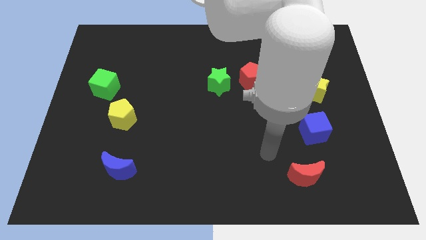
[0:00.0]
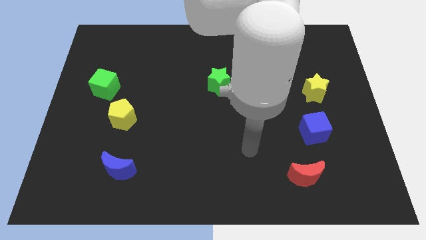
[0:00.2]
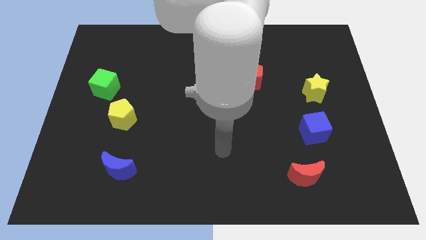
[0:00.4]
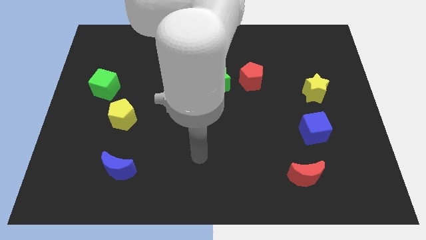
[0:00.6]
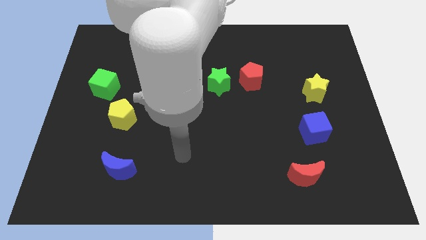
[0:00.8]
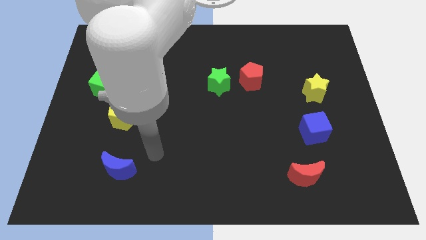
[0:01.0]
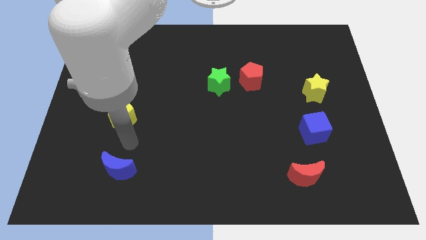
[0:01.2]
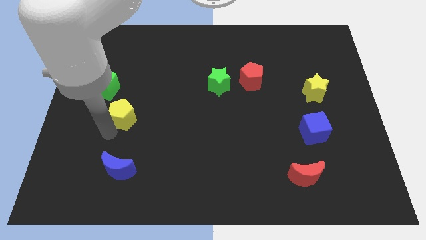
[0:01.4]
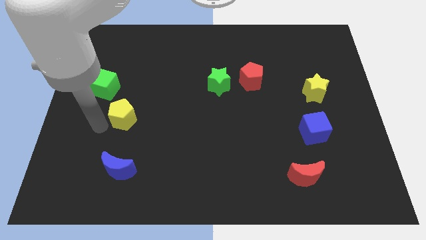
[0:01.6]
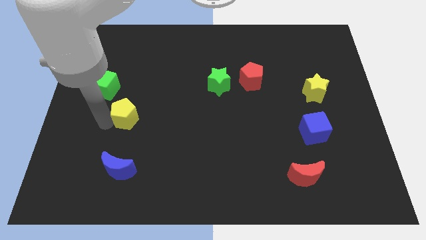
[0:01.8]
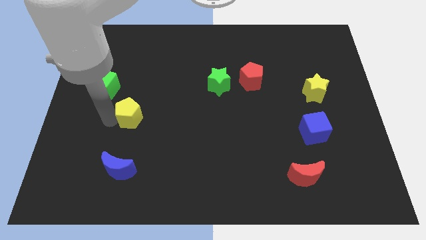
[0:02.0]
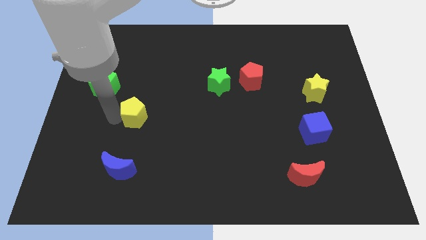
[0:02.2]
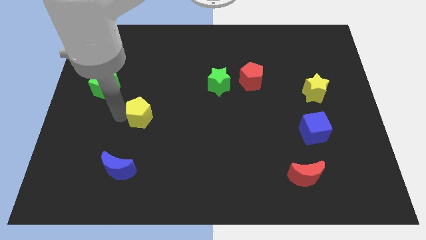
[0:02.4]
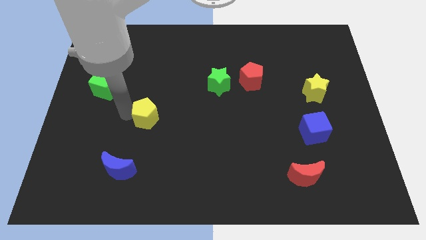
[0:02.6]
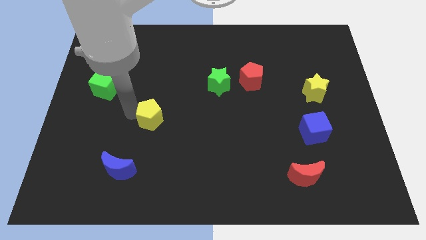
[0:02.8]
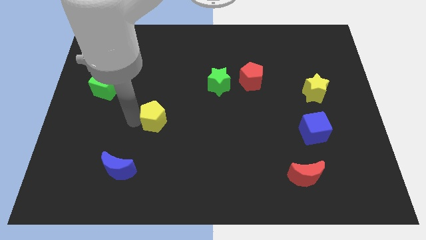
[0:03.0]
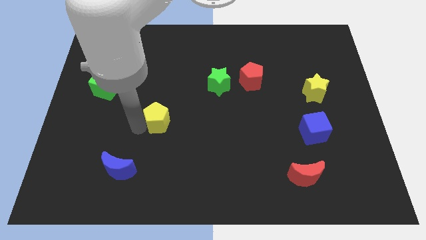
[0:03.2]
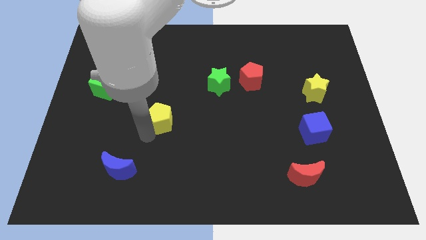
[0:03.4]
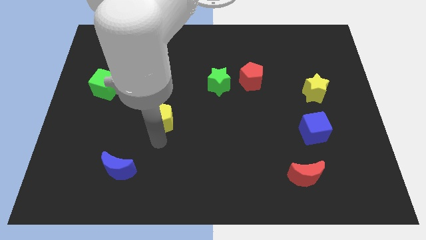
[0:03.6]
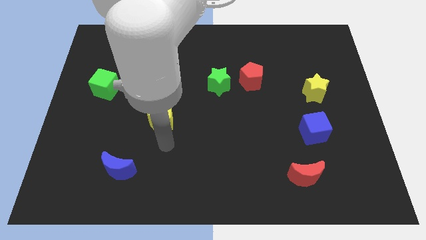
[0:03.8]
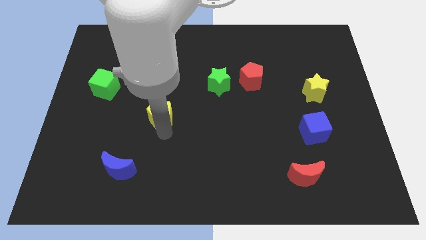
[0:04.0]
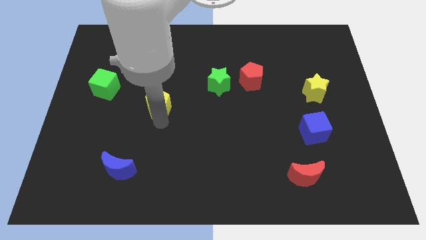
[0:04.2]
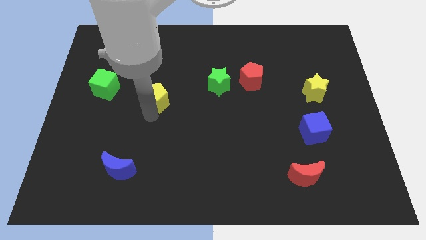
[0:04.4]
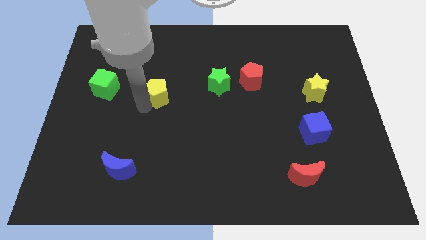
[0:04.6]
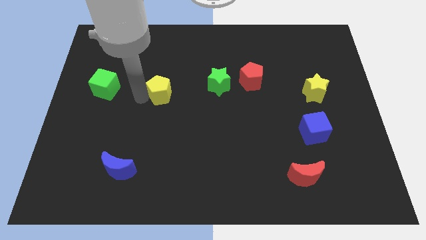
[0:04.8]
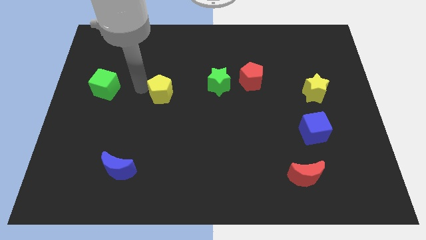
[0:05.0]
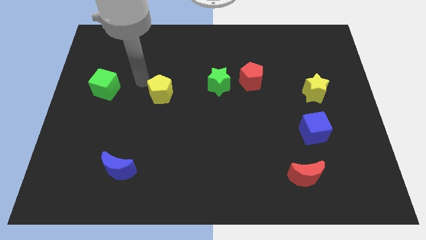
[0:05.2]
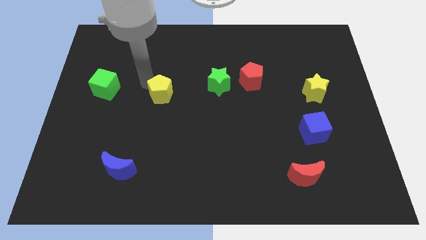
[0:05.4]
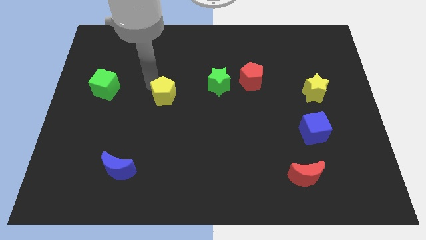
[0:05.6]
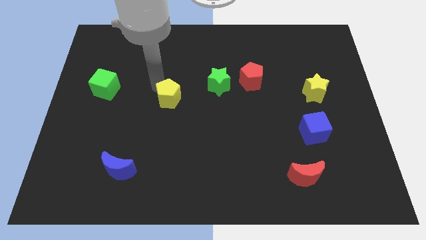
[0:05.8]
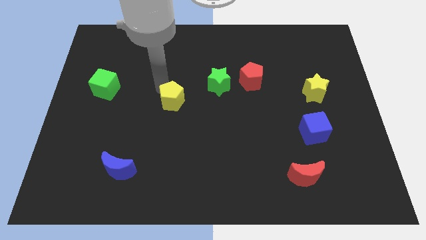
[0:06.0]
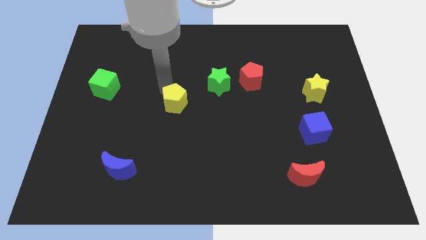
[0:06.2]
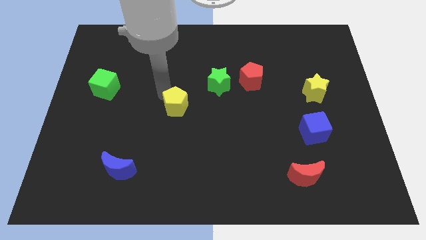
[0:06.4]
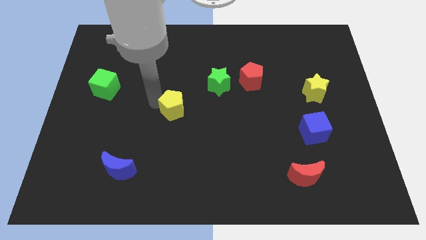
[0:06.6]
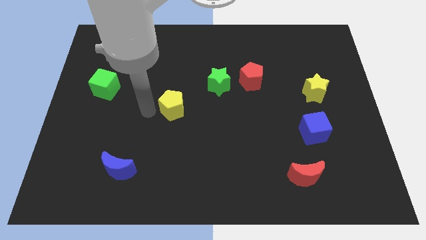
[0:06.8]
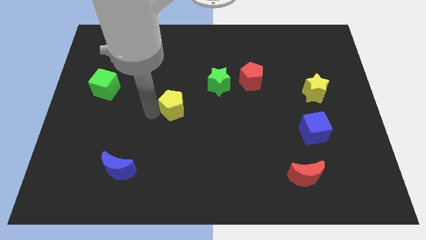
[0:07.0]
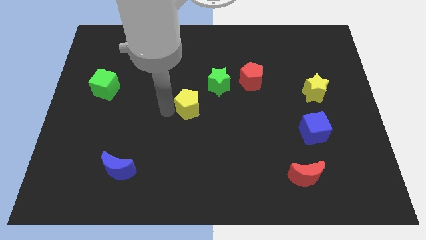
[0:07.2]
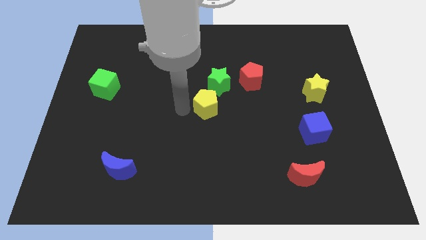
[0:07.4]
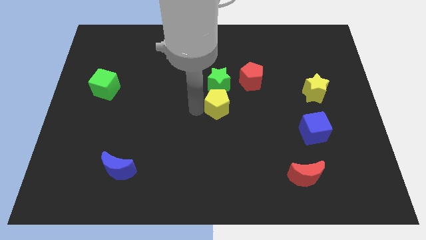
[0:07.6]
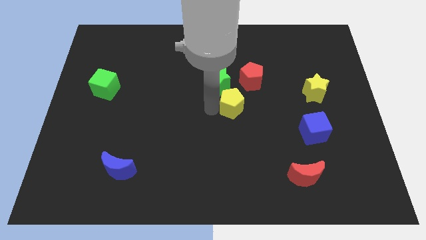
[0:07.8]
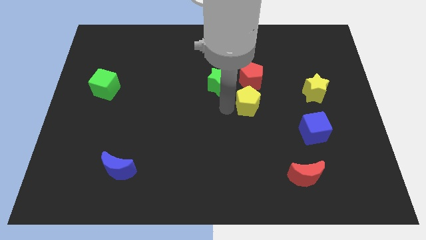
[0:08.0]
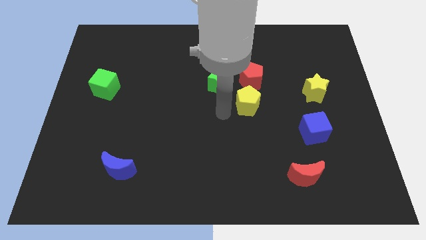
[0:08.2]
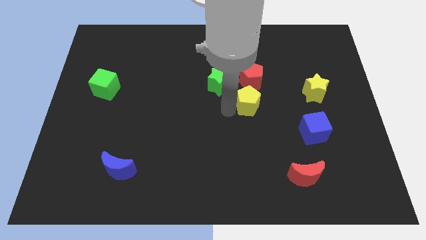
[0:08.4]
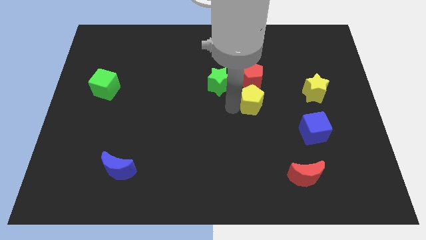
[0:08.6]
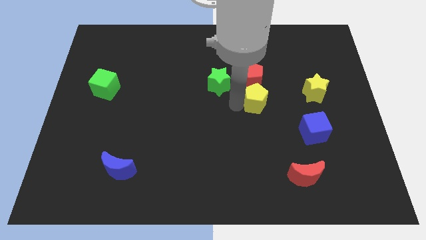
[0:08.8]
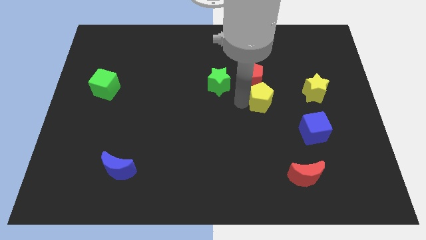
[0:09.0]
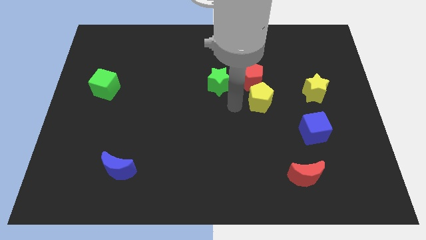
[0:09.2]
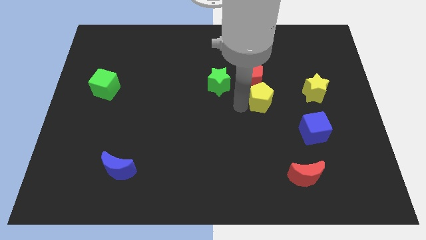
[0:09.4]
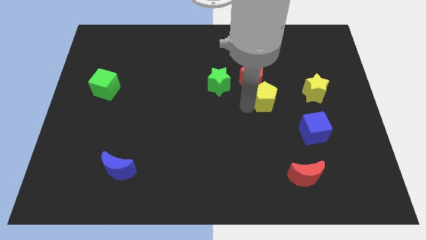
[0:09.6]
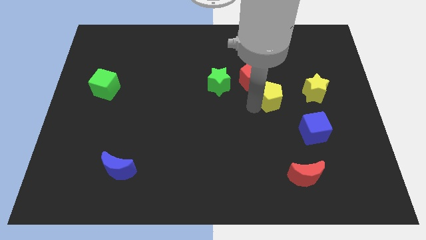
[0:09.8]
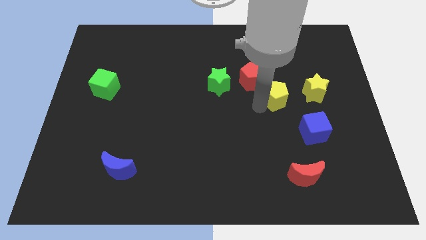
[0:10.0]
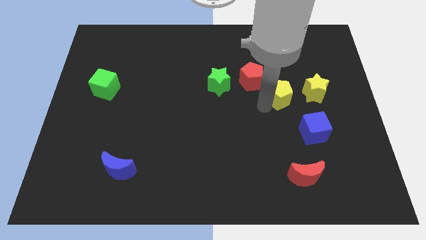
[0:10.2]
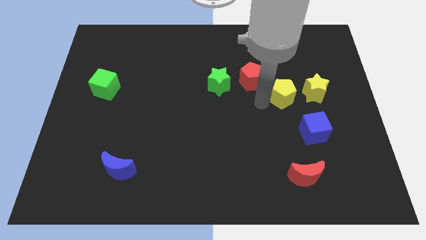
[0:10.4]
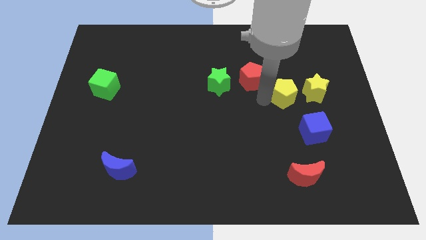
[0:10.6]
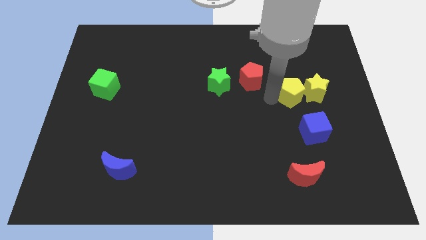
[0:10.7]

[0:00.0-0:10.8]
put the yellow pentagon to the yellow star

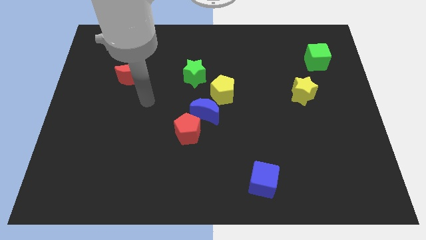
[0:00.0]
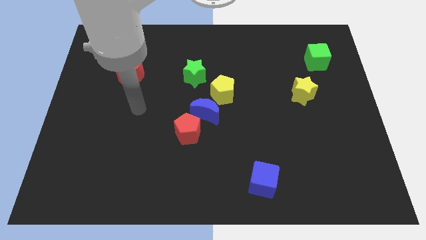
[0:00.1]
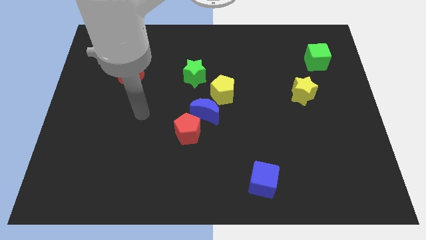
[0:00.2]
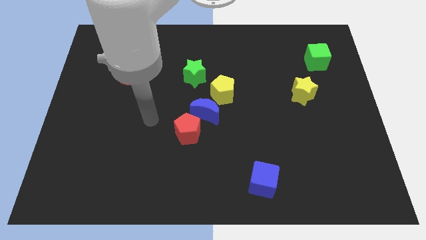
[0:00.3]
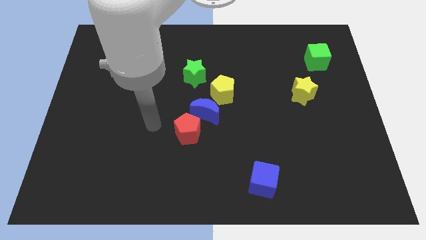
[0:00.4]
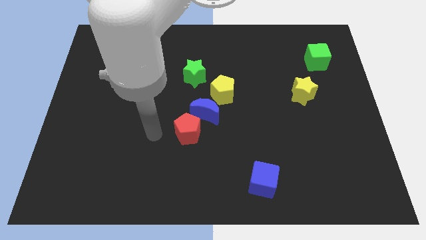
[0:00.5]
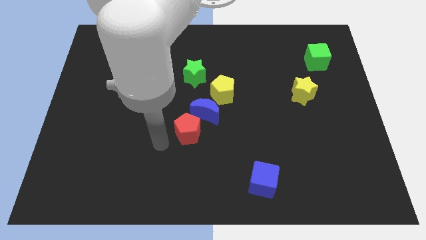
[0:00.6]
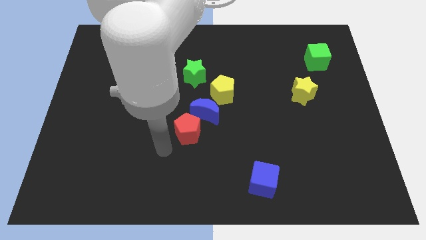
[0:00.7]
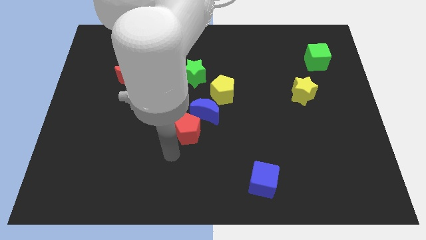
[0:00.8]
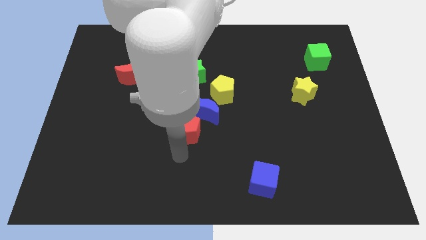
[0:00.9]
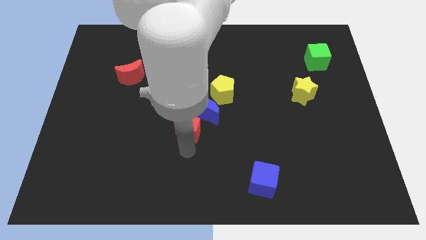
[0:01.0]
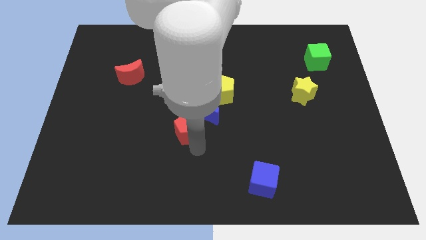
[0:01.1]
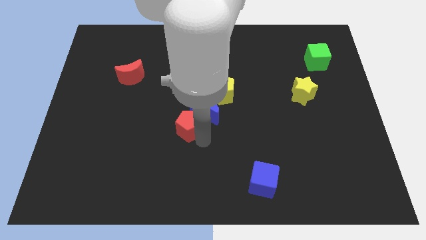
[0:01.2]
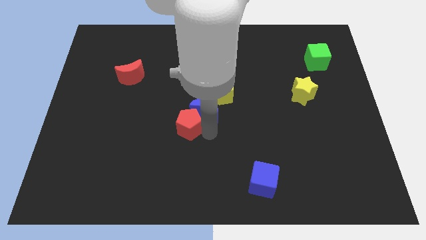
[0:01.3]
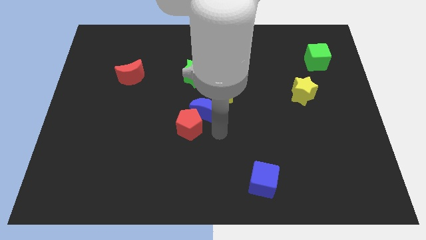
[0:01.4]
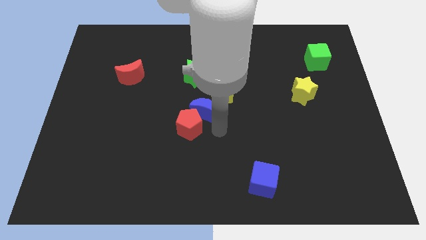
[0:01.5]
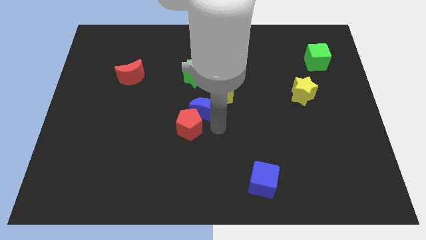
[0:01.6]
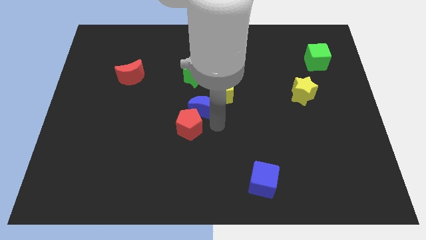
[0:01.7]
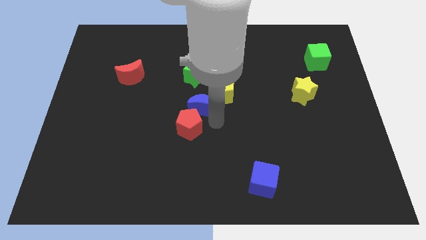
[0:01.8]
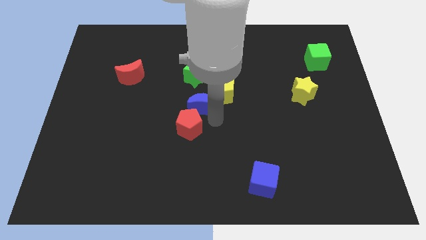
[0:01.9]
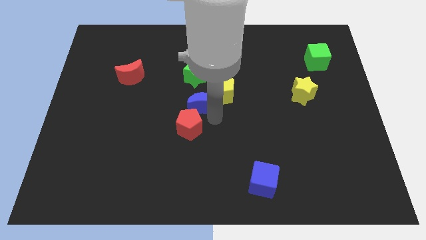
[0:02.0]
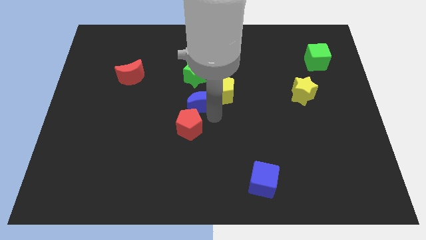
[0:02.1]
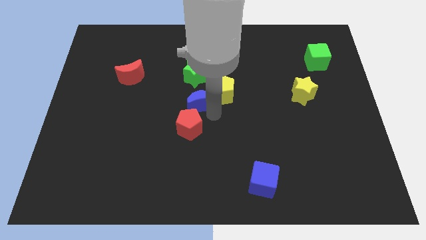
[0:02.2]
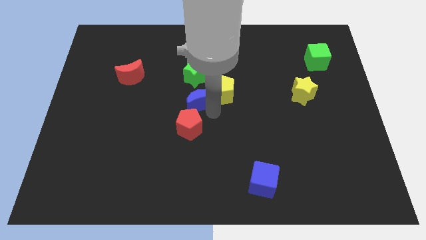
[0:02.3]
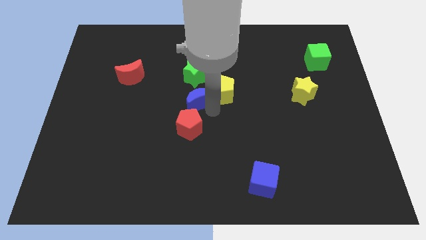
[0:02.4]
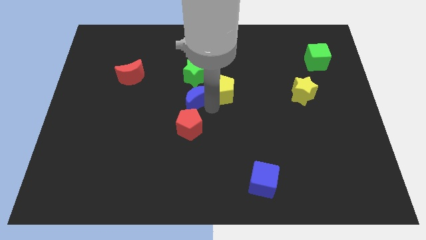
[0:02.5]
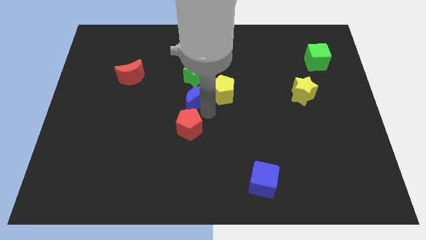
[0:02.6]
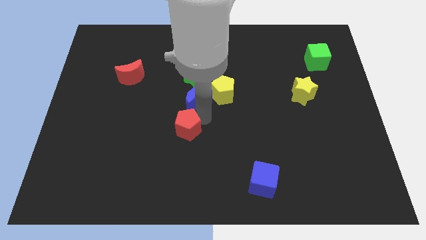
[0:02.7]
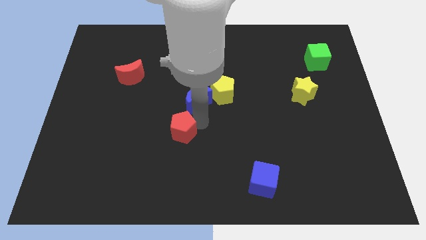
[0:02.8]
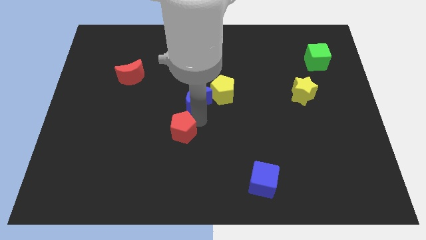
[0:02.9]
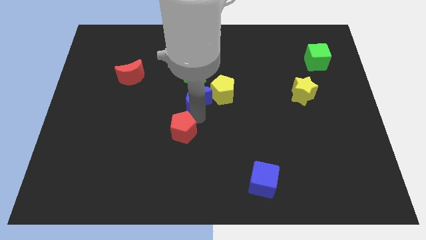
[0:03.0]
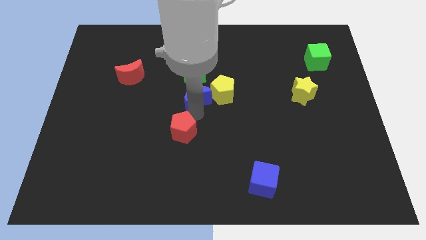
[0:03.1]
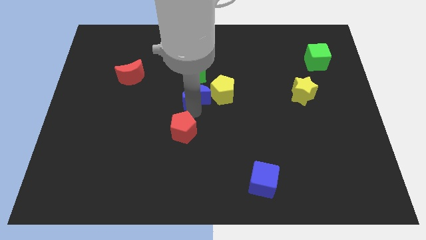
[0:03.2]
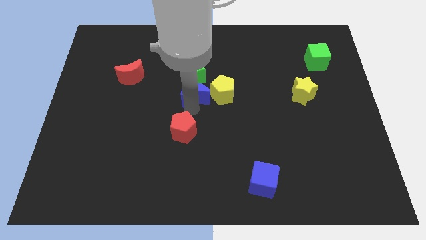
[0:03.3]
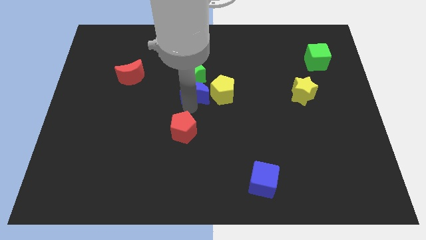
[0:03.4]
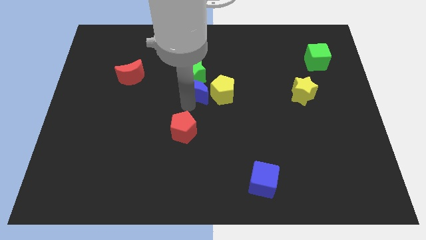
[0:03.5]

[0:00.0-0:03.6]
push the blue moon to the green star
